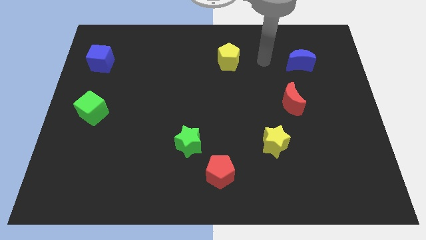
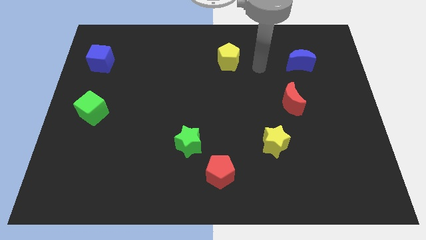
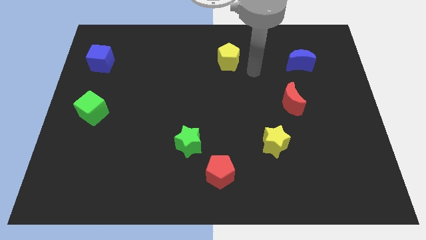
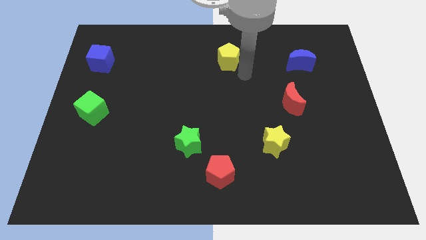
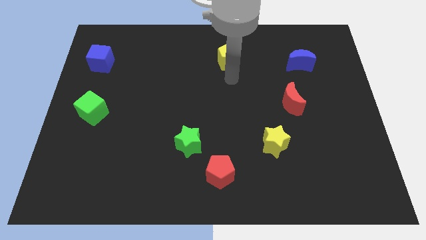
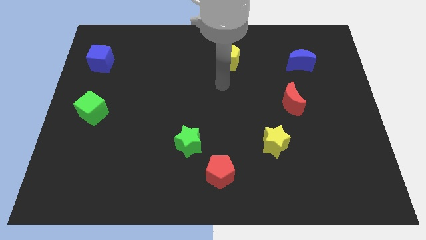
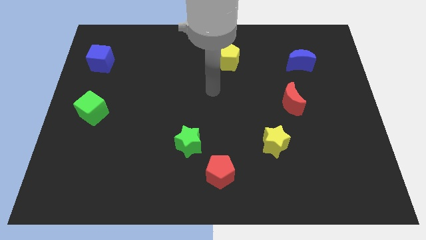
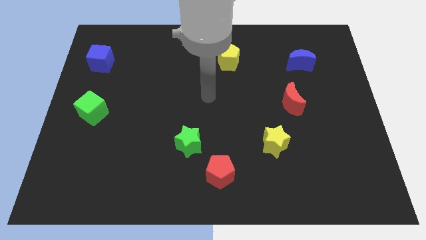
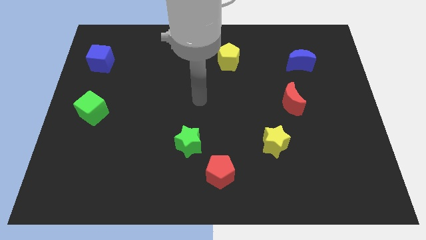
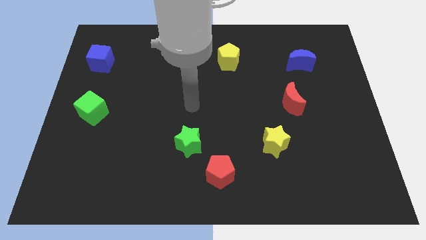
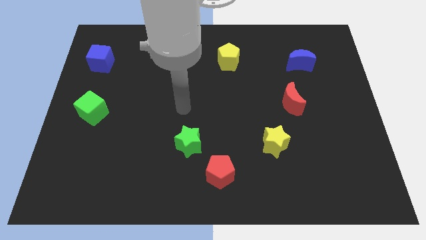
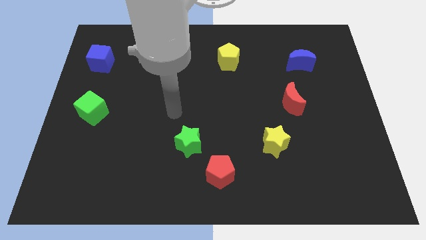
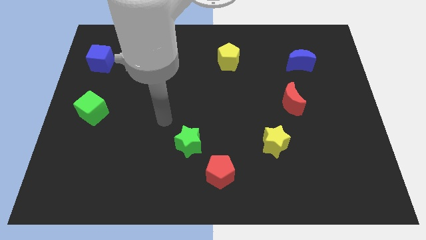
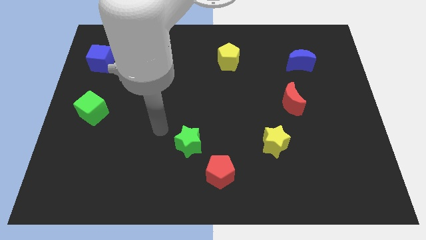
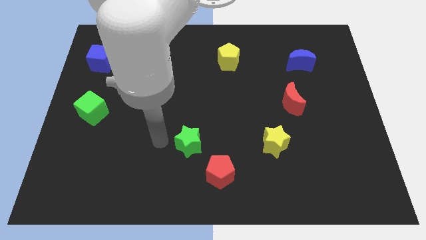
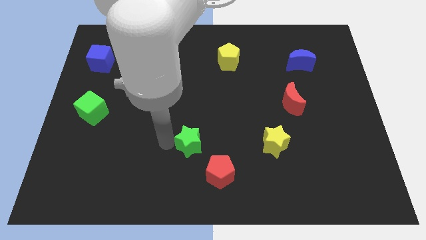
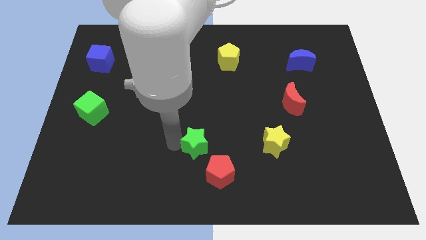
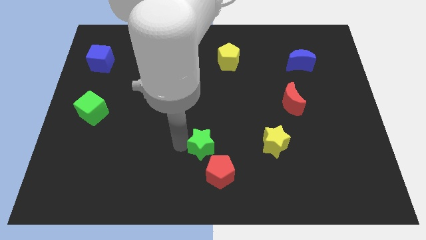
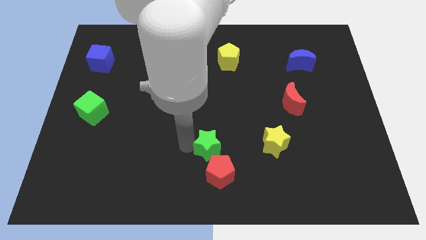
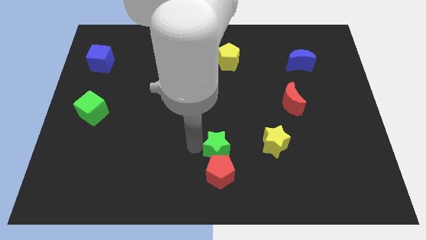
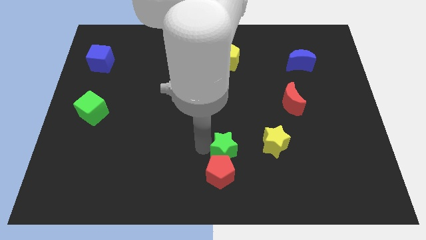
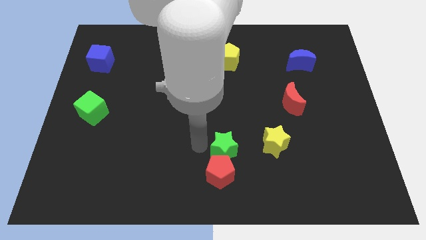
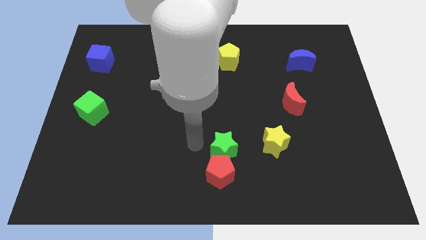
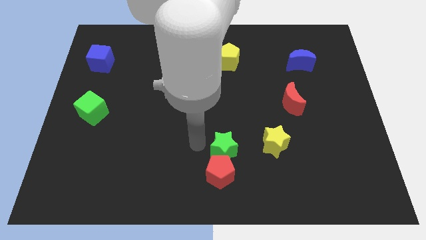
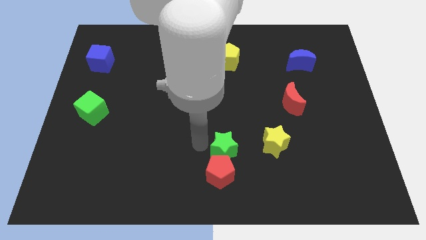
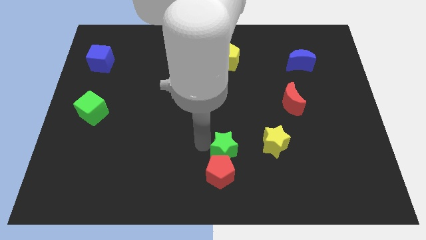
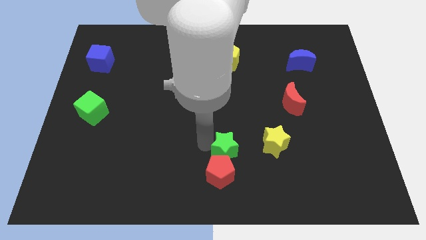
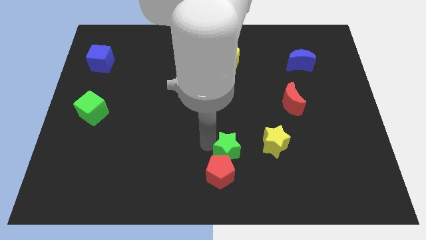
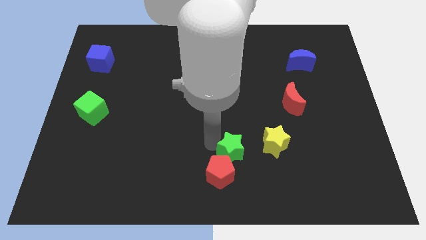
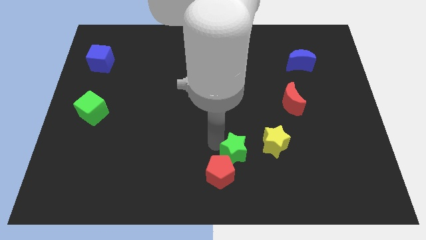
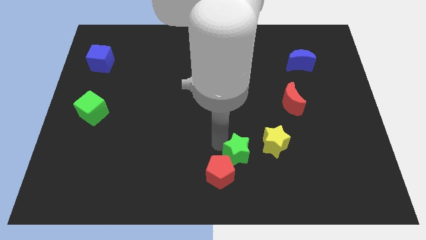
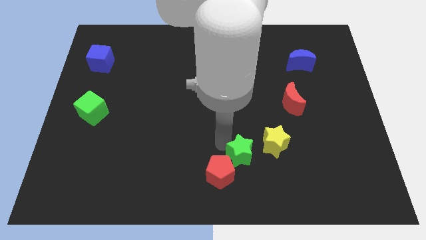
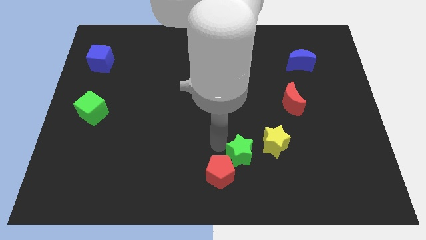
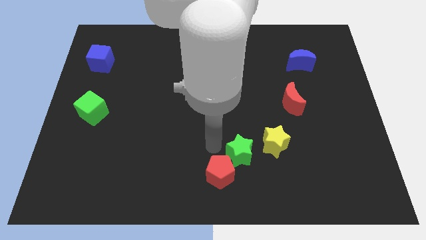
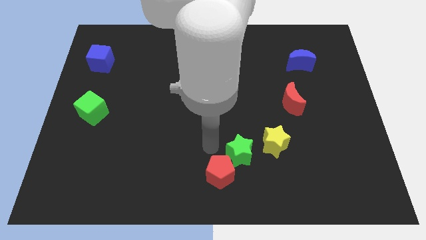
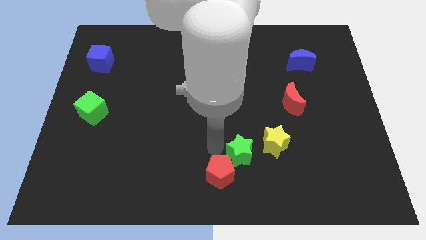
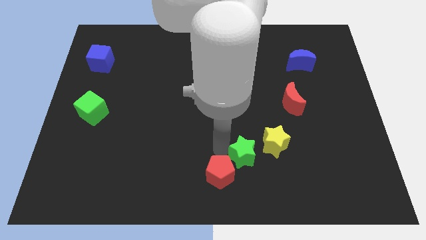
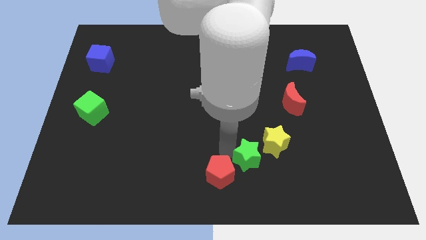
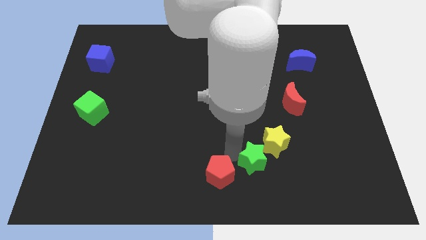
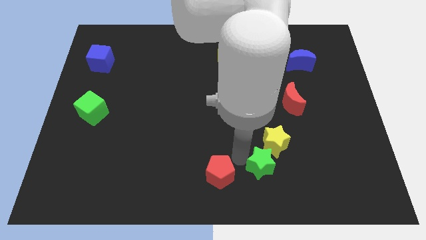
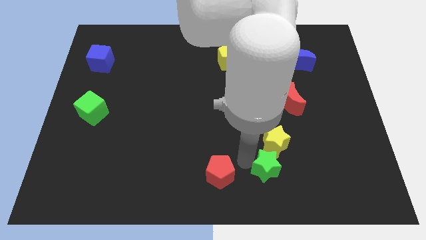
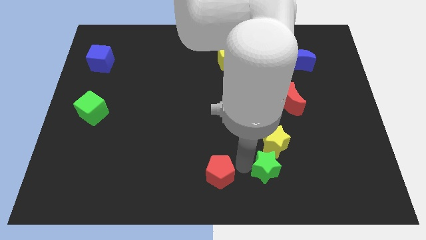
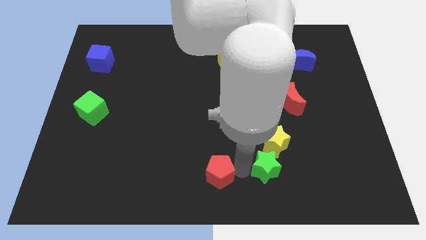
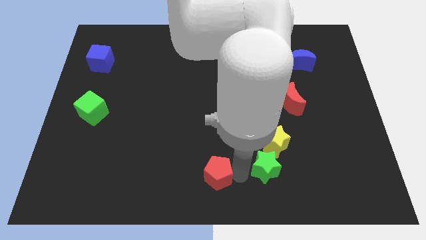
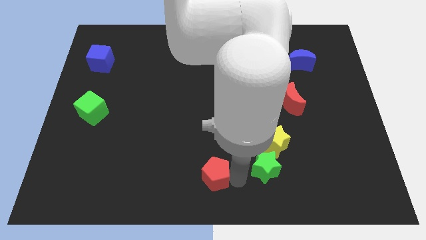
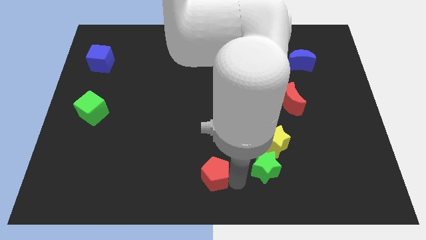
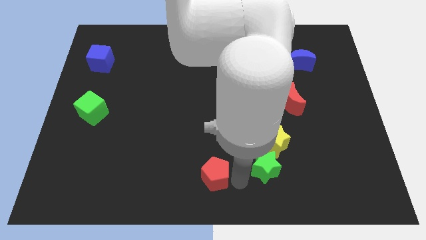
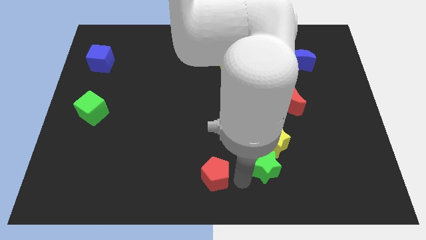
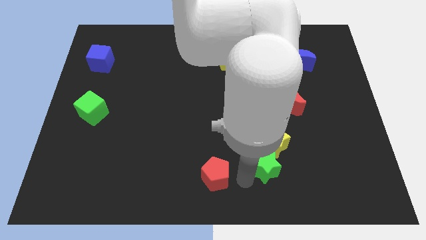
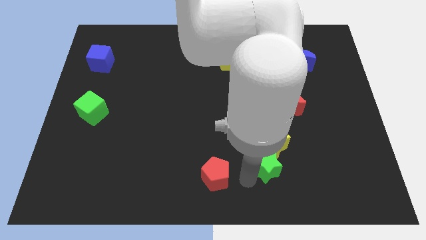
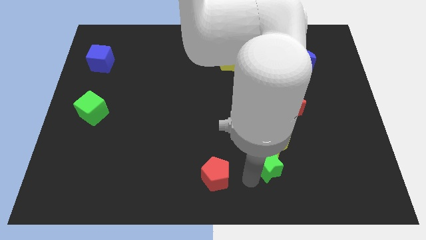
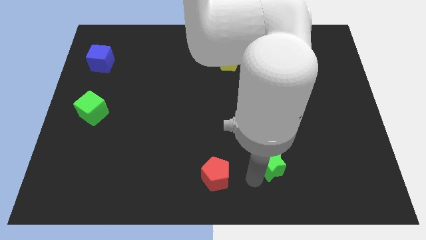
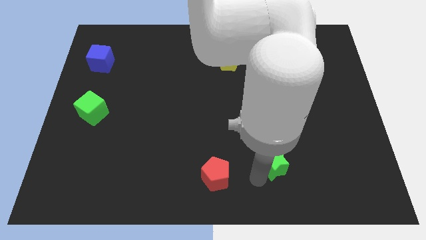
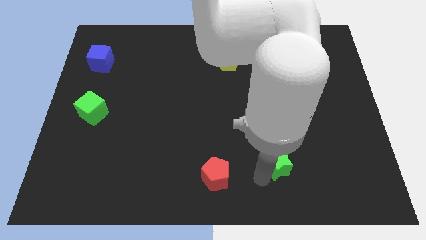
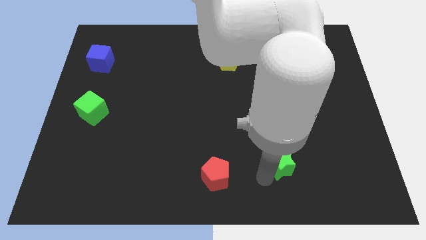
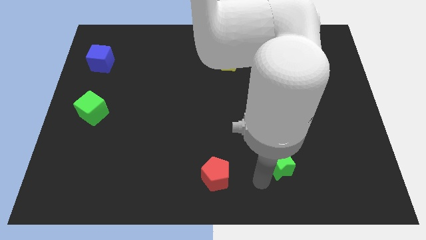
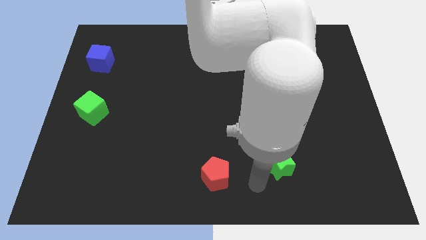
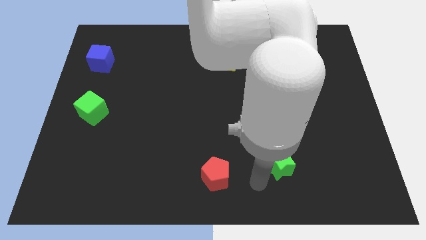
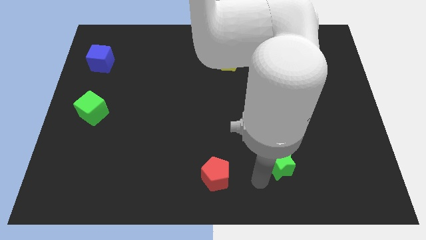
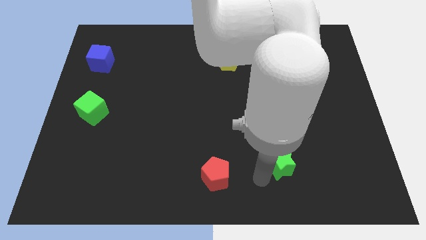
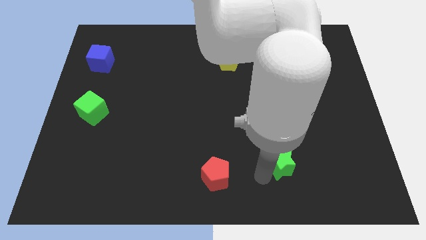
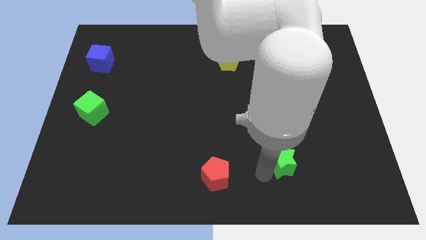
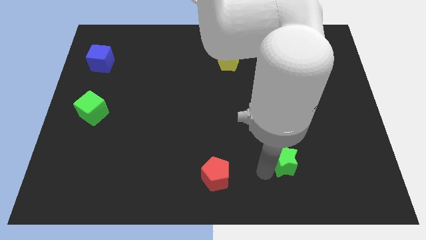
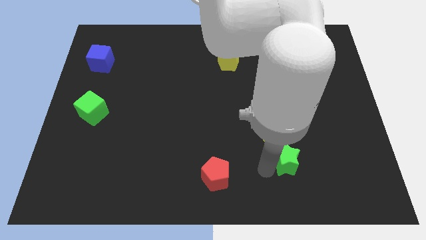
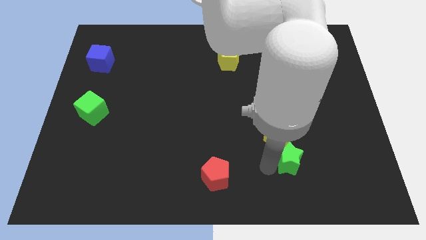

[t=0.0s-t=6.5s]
push the green star right

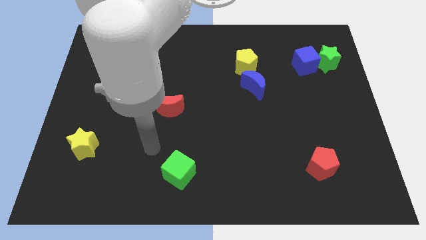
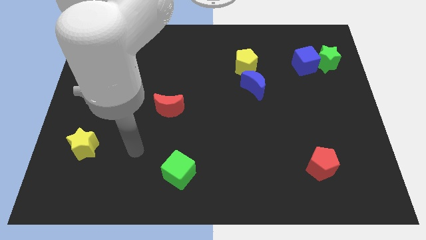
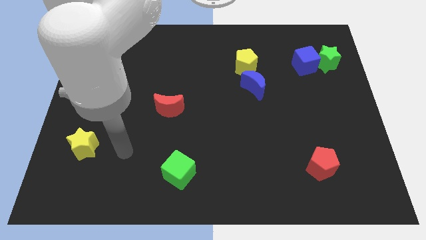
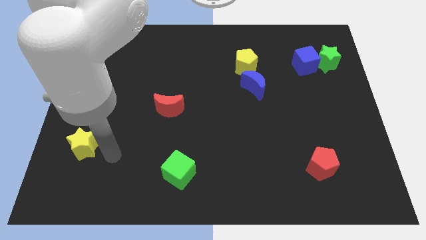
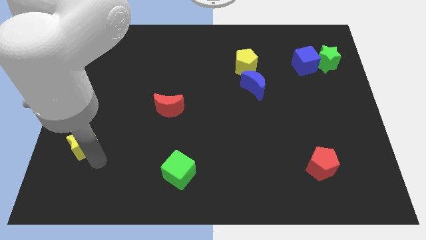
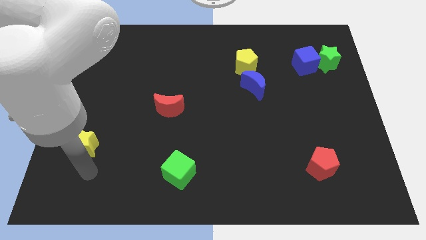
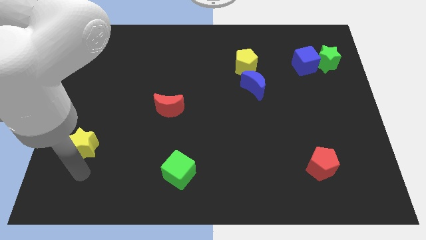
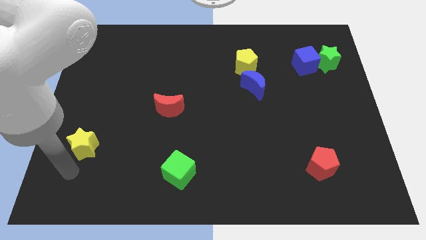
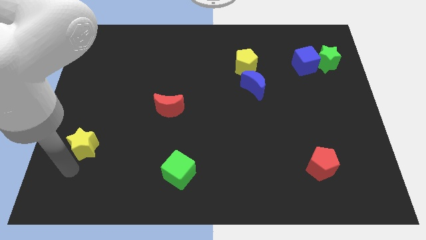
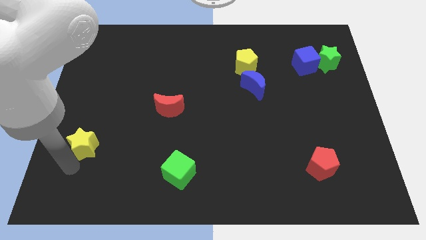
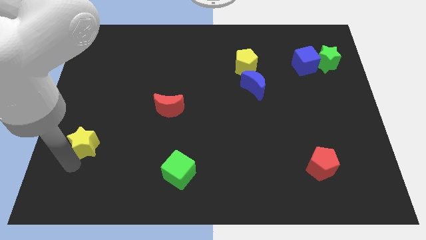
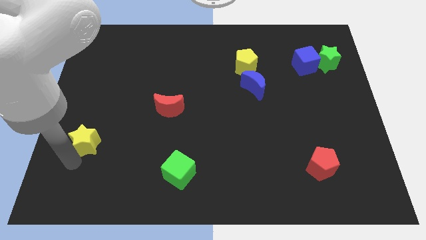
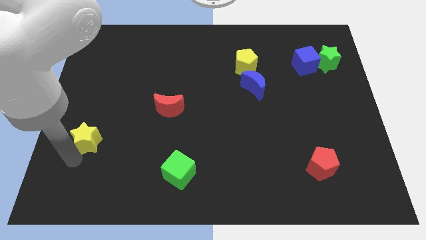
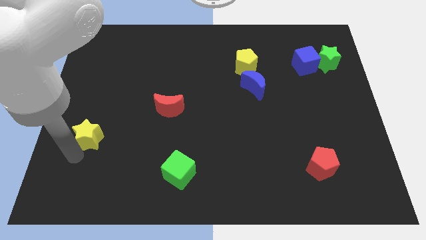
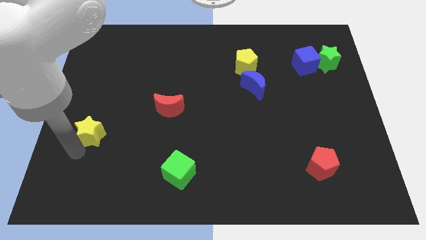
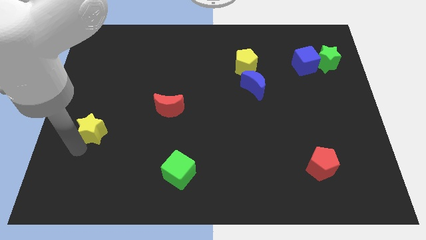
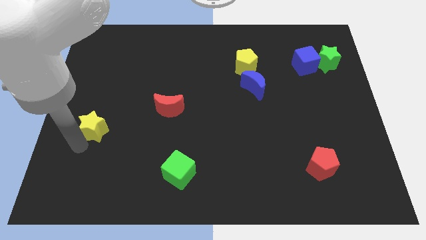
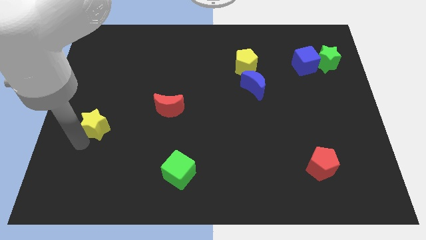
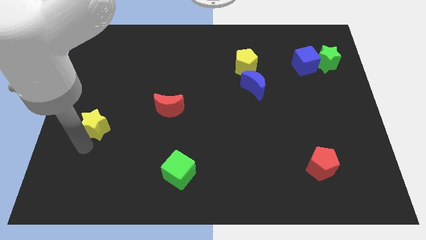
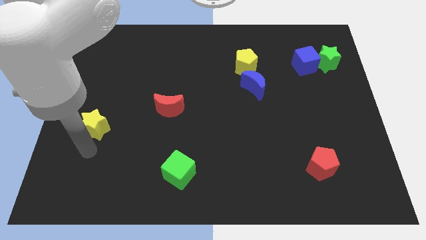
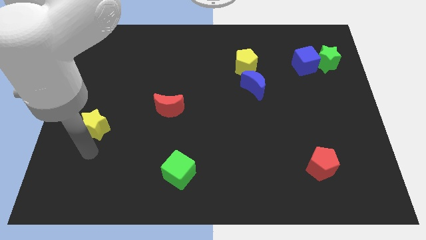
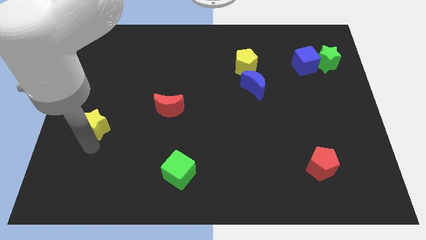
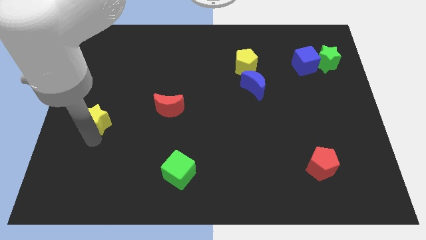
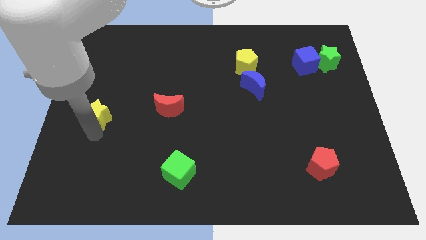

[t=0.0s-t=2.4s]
slide the yellow star upwards a little
